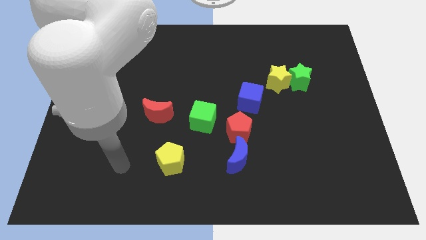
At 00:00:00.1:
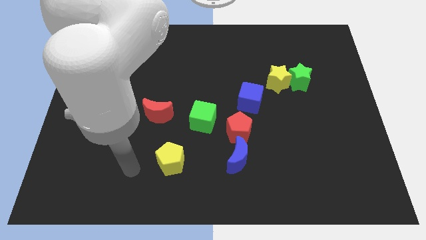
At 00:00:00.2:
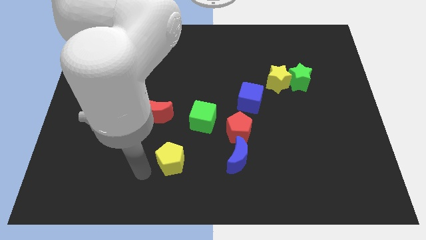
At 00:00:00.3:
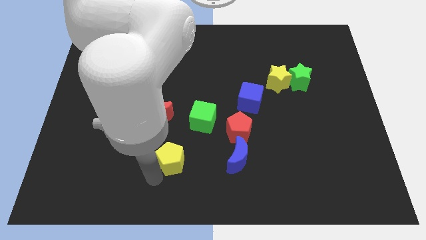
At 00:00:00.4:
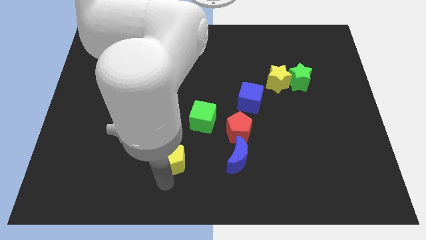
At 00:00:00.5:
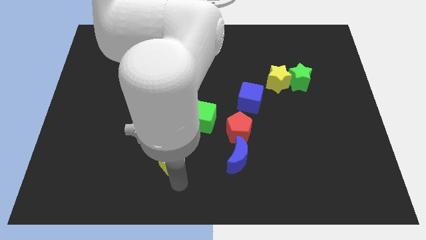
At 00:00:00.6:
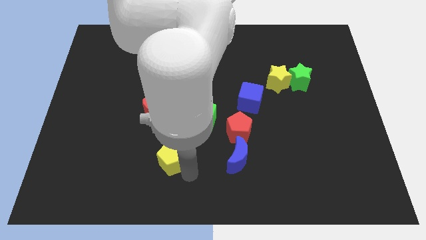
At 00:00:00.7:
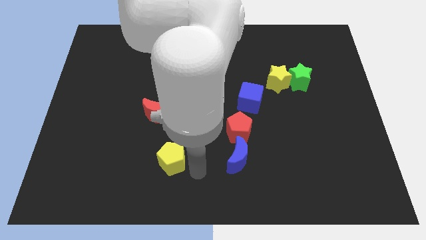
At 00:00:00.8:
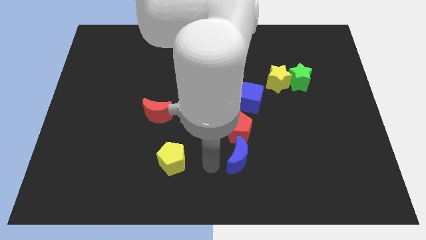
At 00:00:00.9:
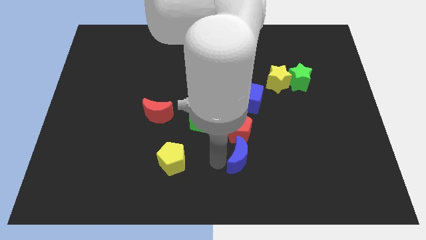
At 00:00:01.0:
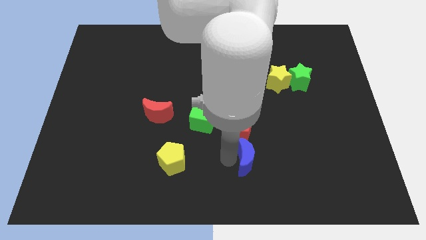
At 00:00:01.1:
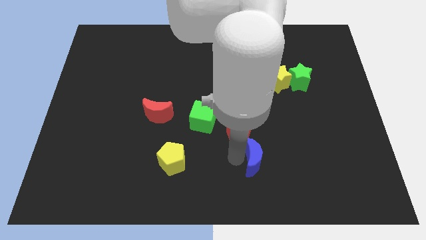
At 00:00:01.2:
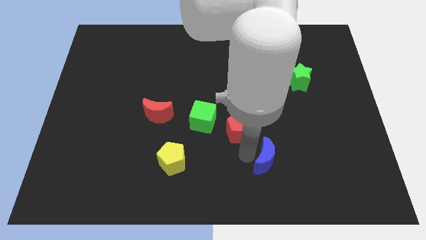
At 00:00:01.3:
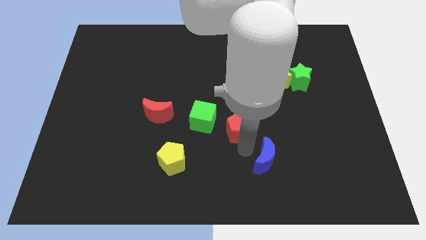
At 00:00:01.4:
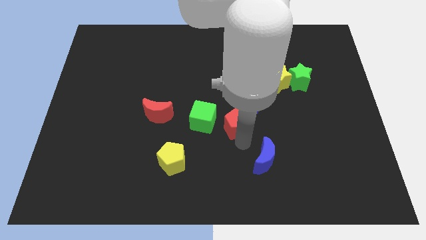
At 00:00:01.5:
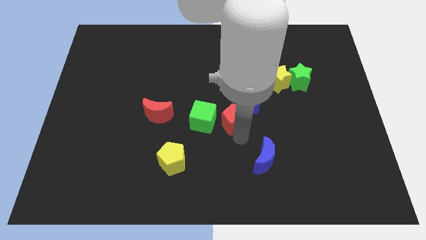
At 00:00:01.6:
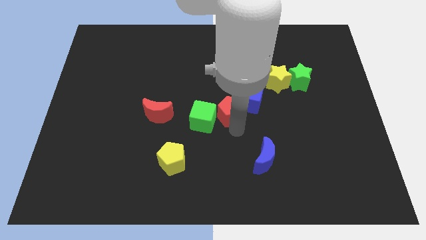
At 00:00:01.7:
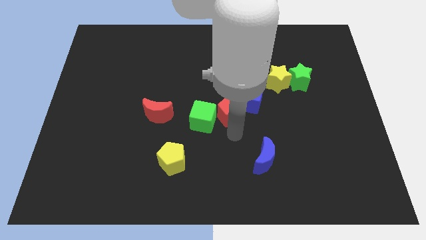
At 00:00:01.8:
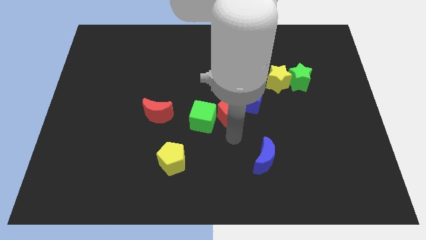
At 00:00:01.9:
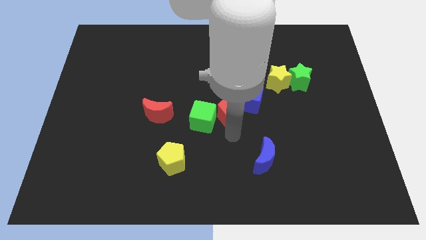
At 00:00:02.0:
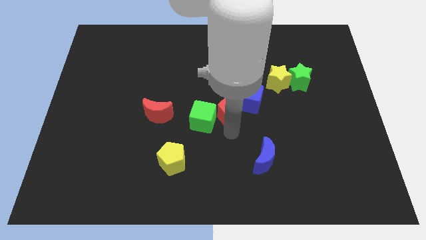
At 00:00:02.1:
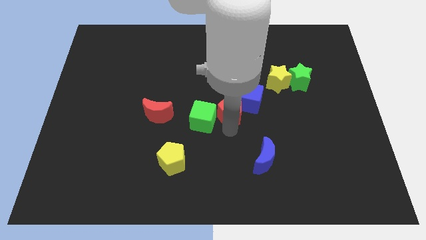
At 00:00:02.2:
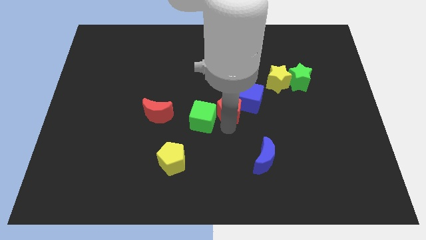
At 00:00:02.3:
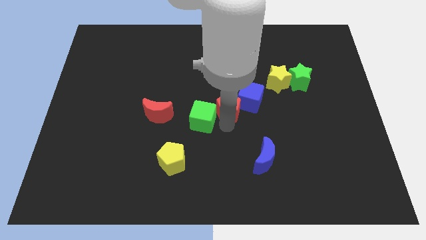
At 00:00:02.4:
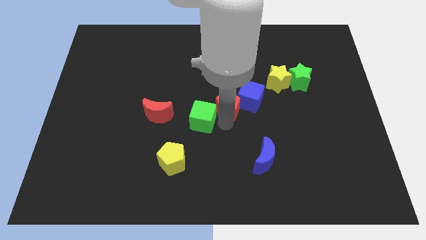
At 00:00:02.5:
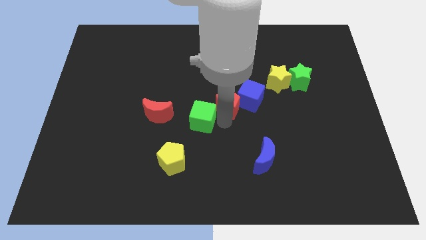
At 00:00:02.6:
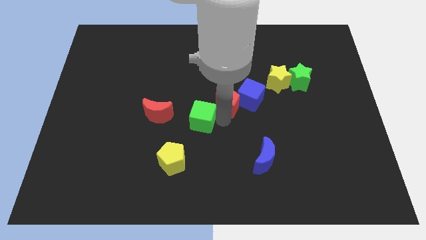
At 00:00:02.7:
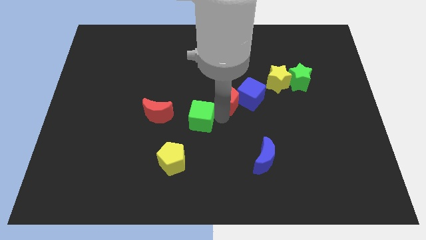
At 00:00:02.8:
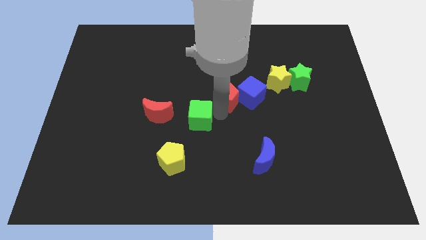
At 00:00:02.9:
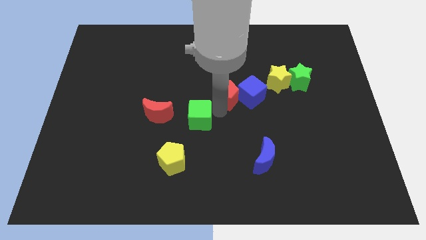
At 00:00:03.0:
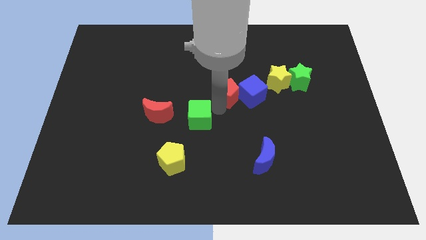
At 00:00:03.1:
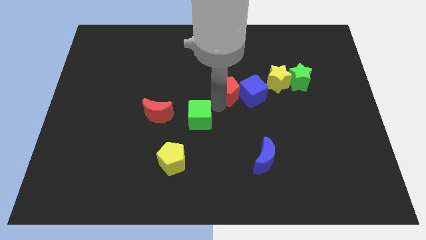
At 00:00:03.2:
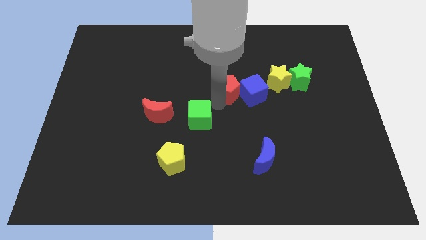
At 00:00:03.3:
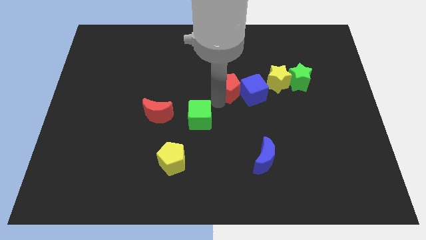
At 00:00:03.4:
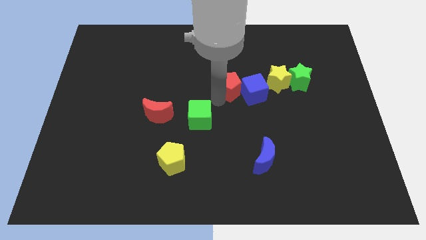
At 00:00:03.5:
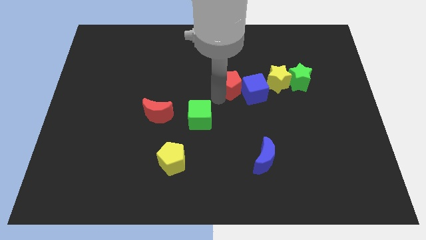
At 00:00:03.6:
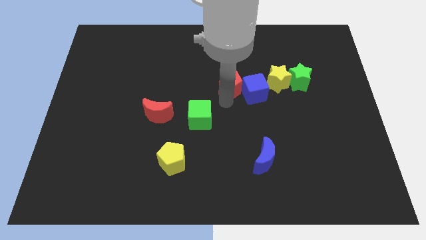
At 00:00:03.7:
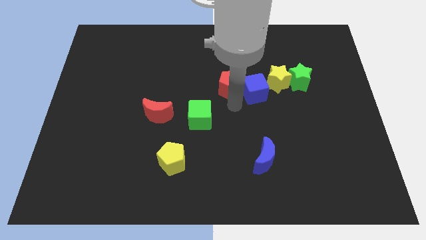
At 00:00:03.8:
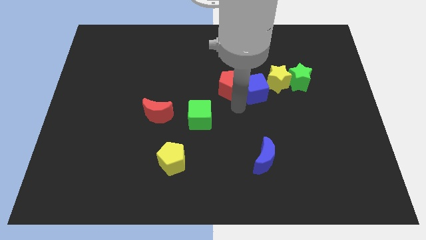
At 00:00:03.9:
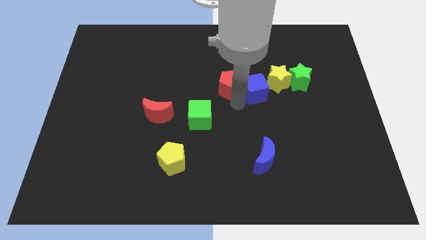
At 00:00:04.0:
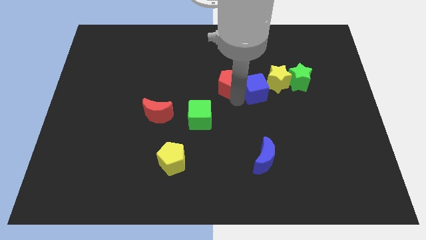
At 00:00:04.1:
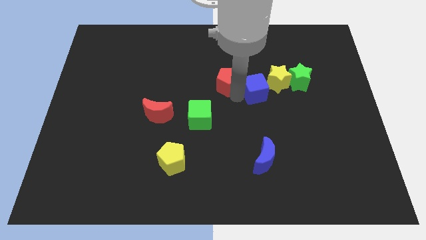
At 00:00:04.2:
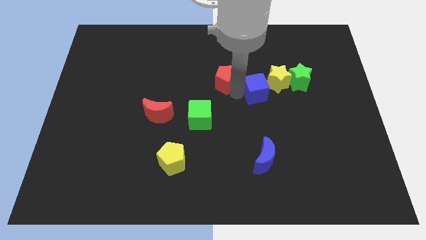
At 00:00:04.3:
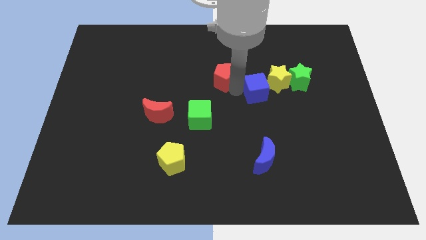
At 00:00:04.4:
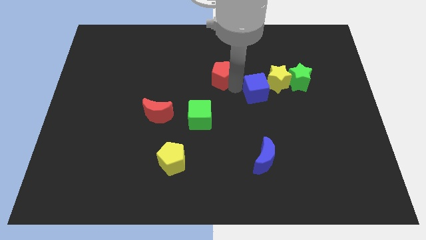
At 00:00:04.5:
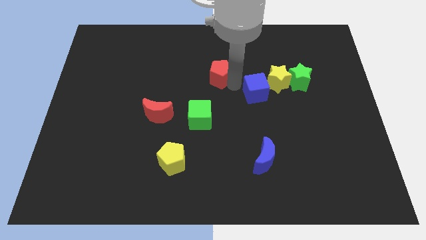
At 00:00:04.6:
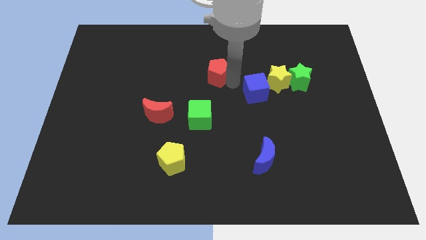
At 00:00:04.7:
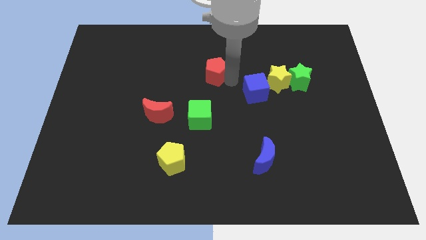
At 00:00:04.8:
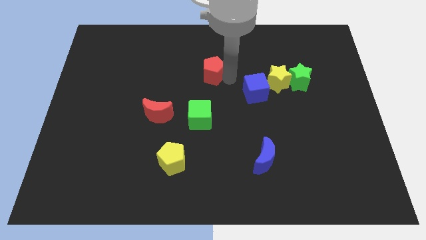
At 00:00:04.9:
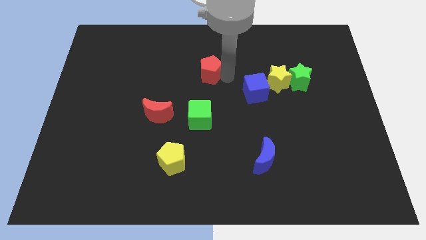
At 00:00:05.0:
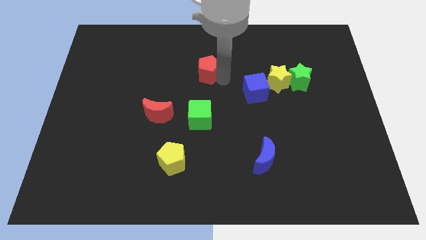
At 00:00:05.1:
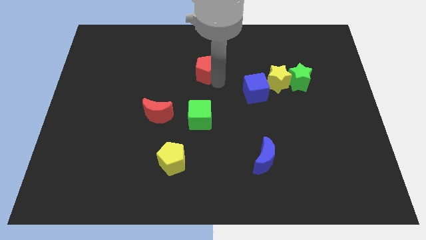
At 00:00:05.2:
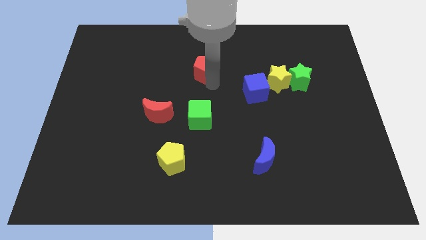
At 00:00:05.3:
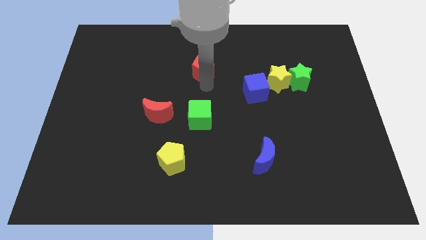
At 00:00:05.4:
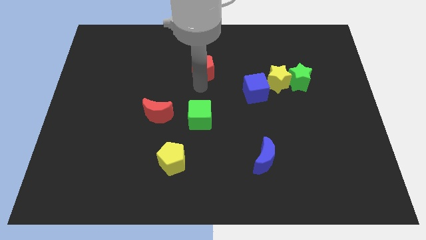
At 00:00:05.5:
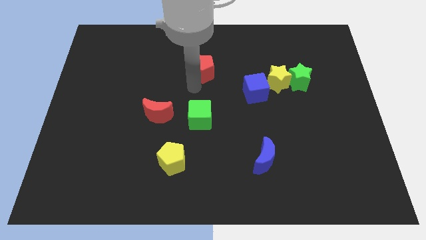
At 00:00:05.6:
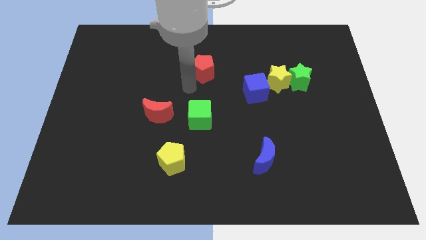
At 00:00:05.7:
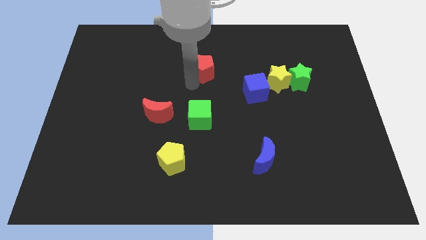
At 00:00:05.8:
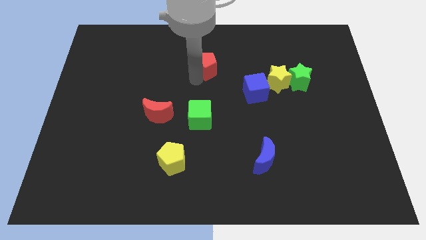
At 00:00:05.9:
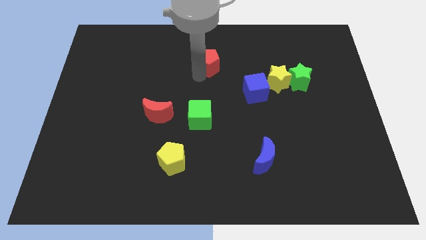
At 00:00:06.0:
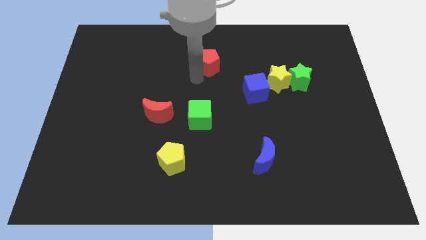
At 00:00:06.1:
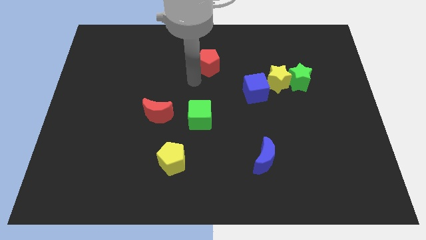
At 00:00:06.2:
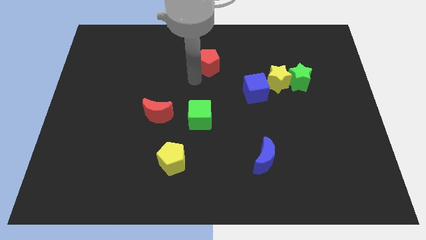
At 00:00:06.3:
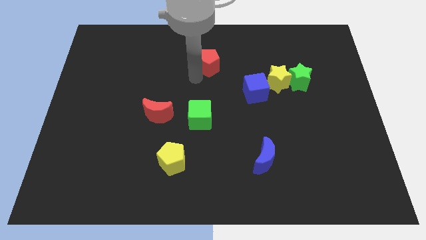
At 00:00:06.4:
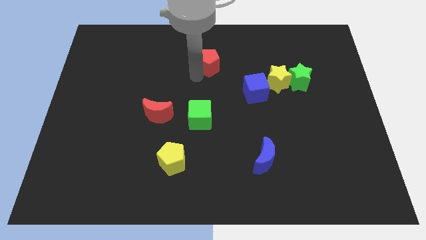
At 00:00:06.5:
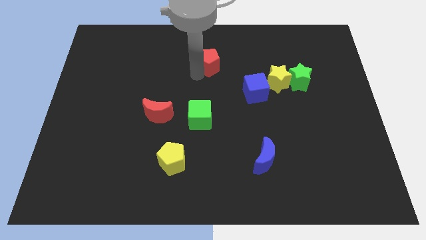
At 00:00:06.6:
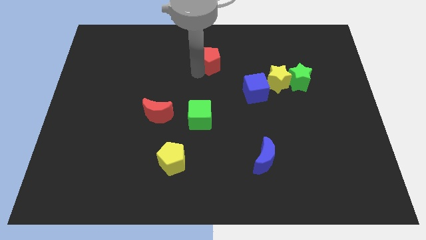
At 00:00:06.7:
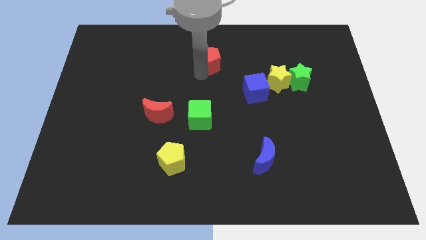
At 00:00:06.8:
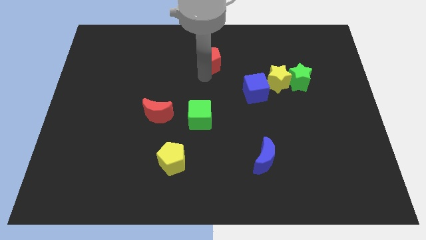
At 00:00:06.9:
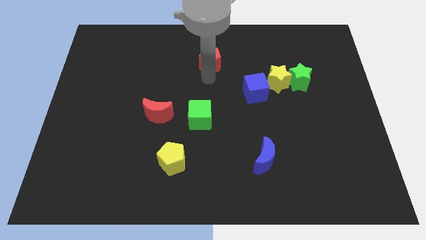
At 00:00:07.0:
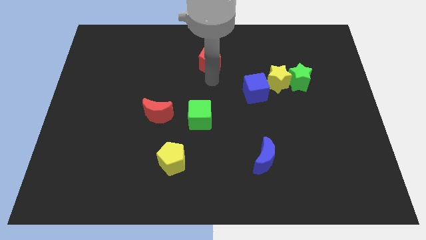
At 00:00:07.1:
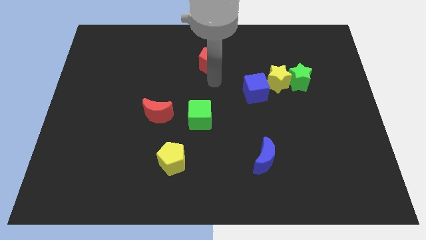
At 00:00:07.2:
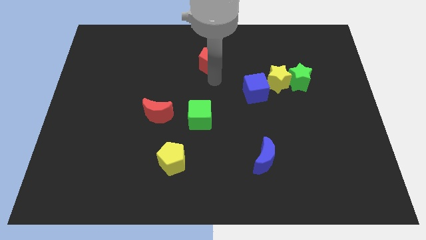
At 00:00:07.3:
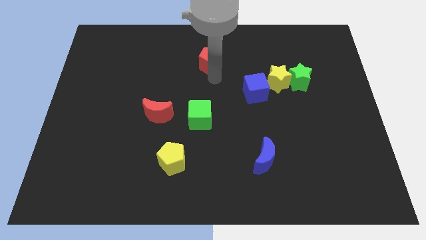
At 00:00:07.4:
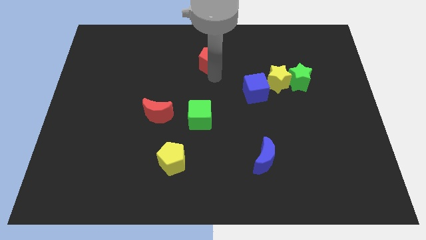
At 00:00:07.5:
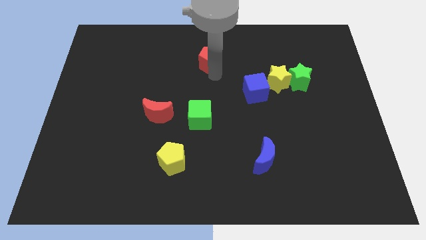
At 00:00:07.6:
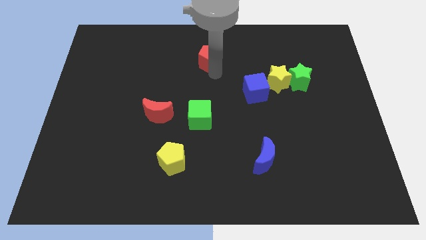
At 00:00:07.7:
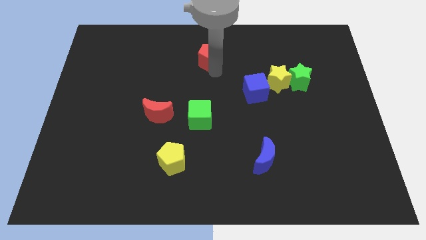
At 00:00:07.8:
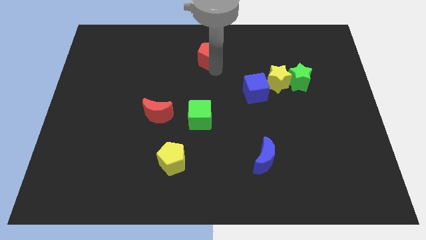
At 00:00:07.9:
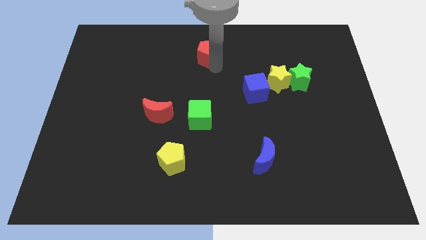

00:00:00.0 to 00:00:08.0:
put the red pentagon to the towards your base
